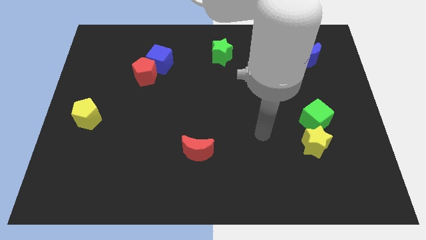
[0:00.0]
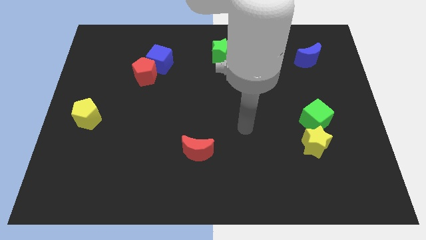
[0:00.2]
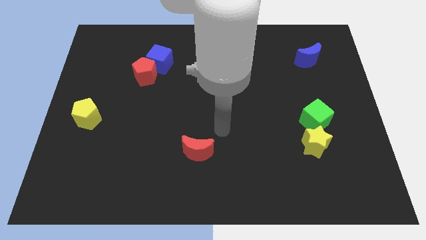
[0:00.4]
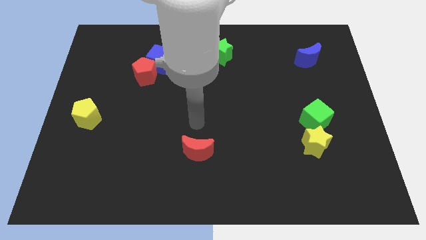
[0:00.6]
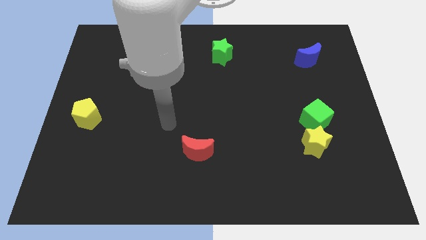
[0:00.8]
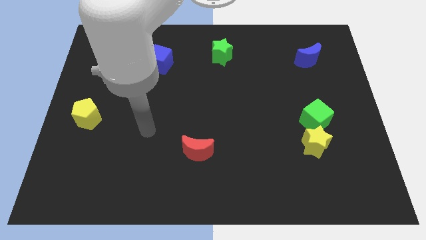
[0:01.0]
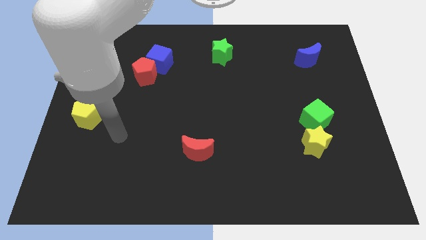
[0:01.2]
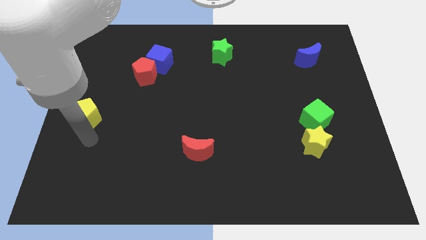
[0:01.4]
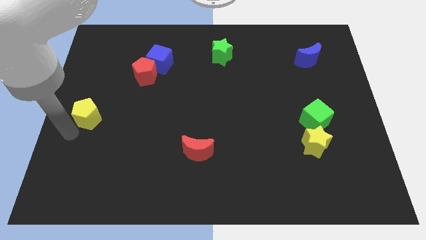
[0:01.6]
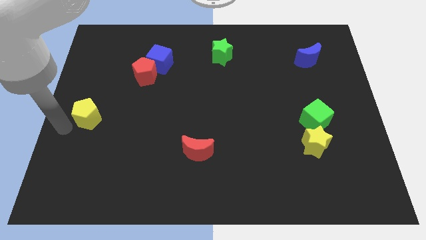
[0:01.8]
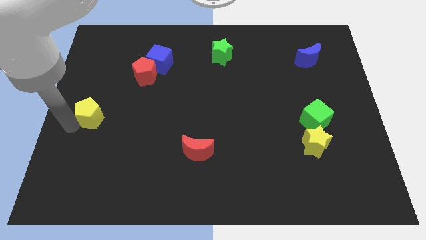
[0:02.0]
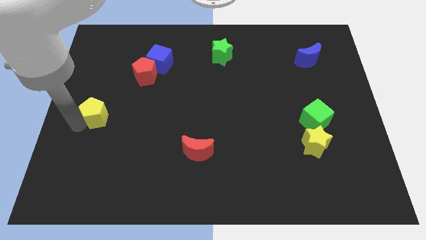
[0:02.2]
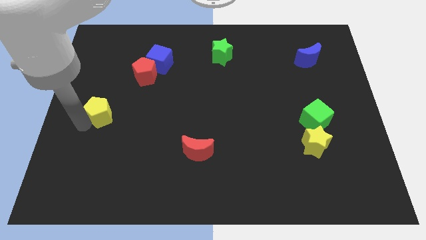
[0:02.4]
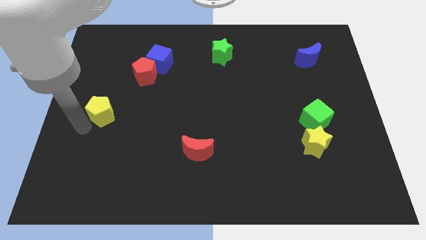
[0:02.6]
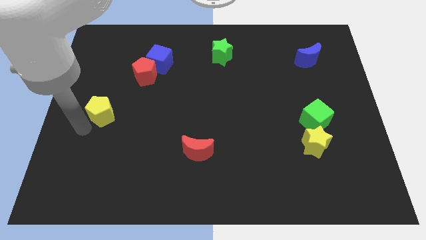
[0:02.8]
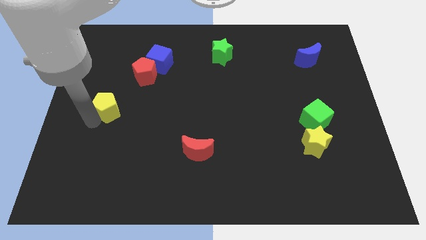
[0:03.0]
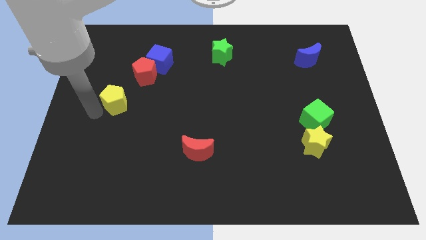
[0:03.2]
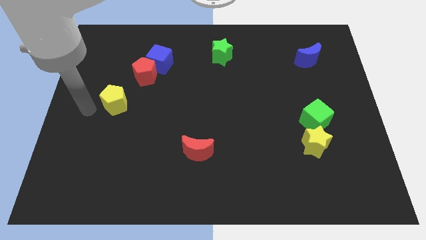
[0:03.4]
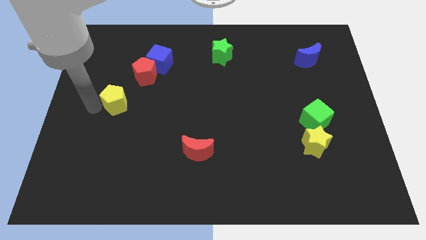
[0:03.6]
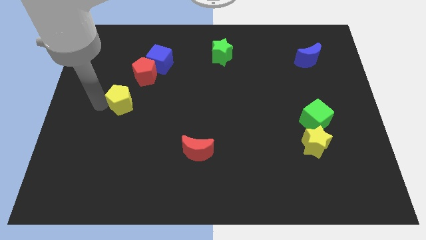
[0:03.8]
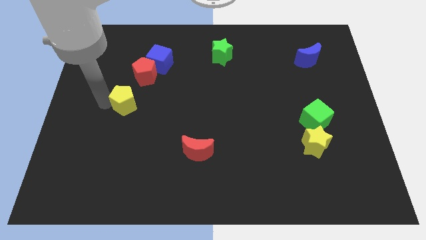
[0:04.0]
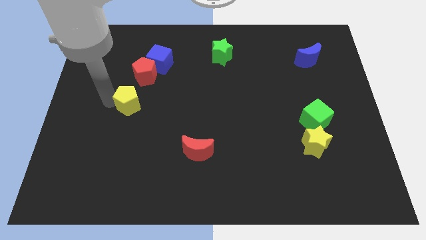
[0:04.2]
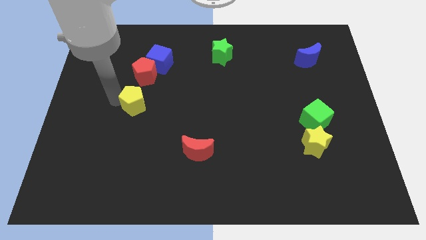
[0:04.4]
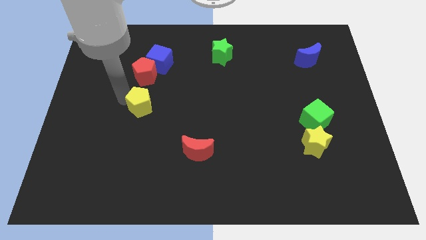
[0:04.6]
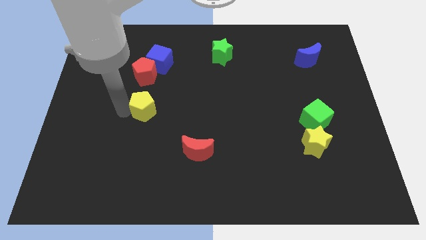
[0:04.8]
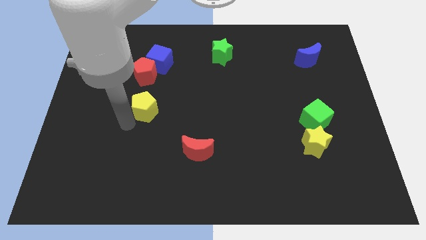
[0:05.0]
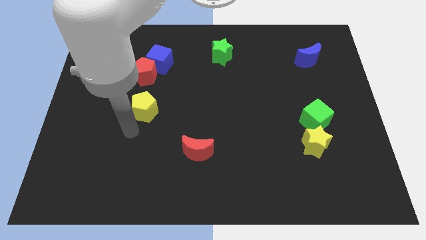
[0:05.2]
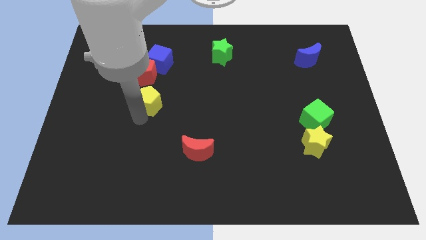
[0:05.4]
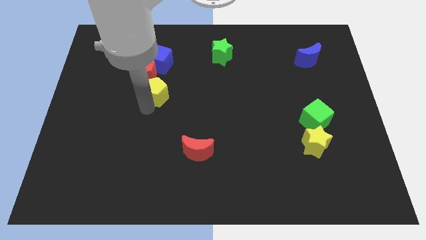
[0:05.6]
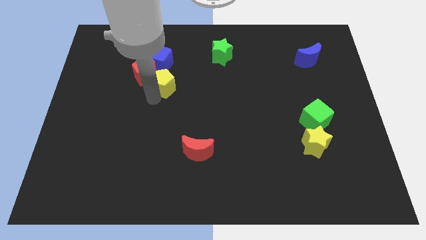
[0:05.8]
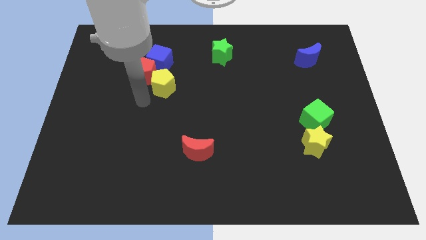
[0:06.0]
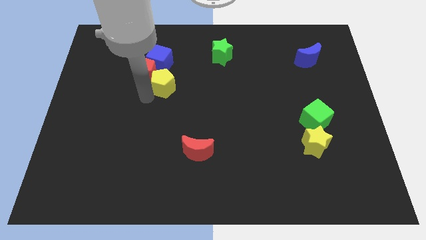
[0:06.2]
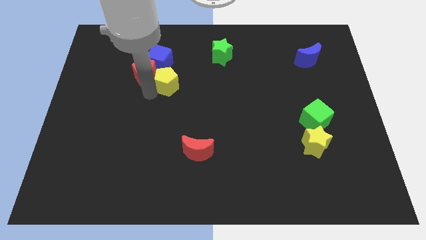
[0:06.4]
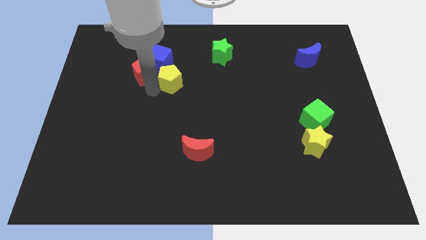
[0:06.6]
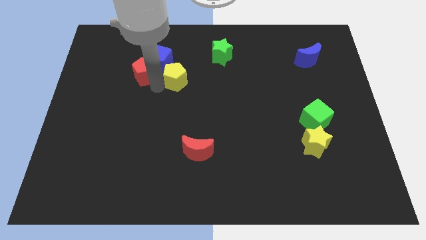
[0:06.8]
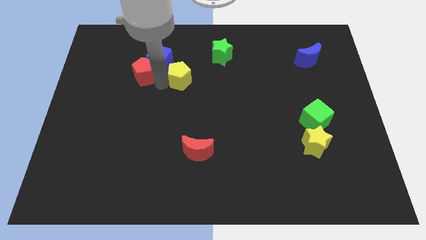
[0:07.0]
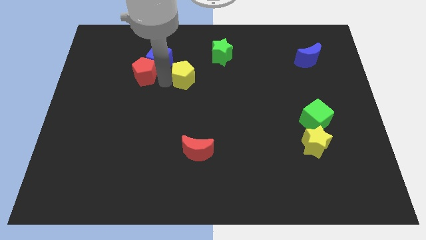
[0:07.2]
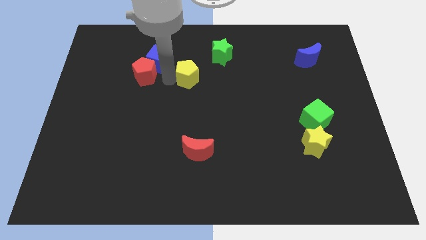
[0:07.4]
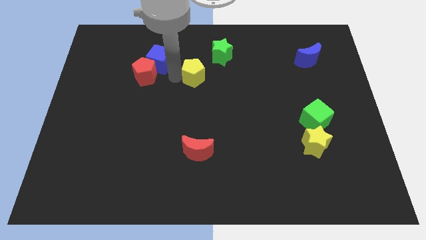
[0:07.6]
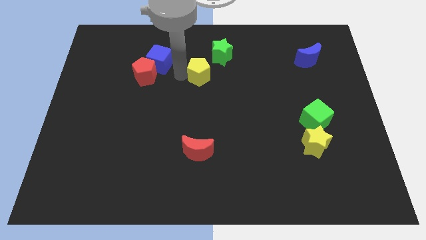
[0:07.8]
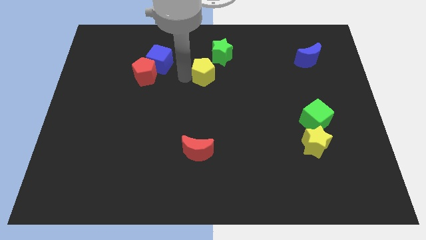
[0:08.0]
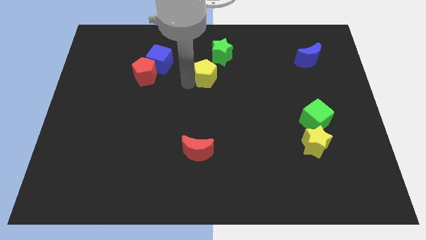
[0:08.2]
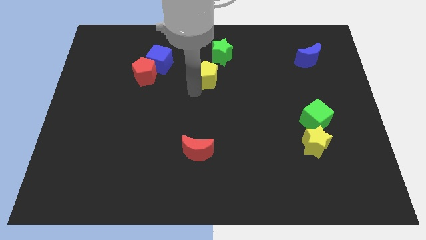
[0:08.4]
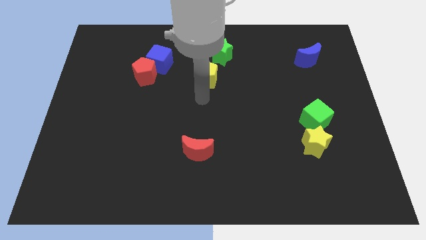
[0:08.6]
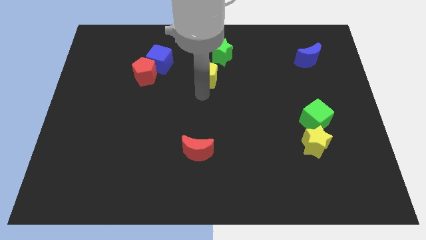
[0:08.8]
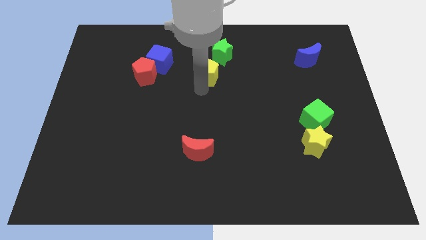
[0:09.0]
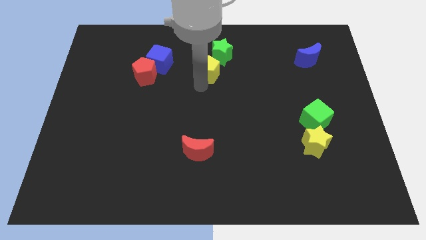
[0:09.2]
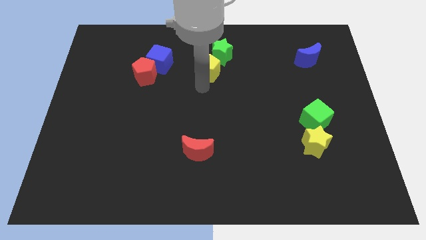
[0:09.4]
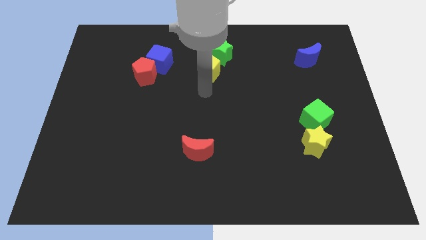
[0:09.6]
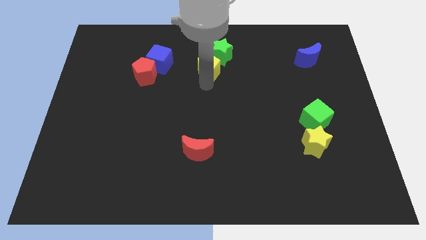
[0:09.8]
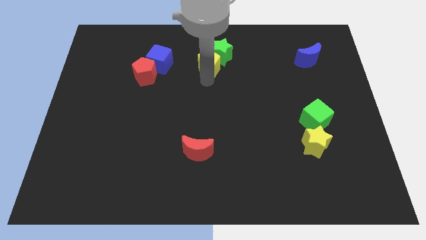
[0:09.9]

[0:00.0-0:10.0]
put the yellow pentagon to the green star

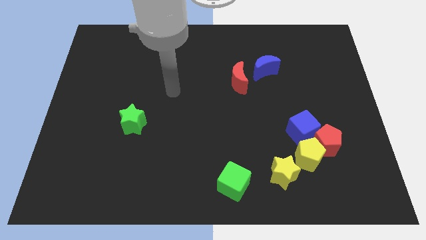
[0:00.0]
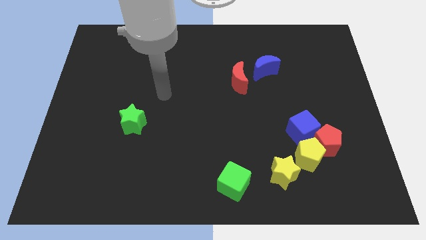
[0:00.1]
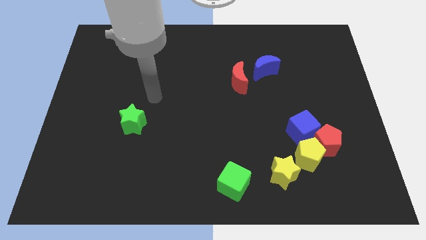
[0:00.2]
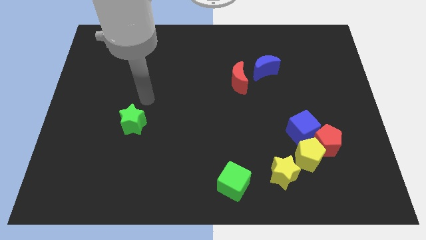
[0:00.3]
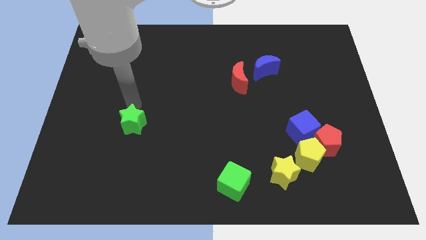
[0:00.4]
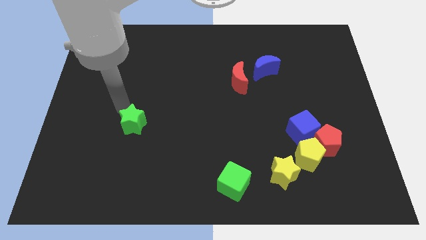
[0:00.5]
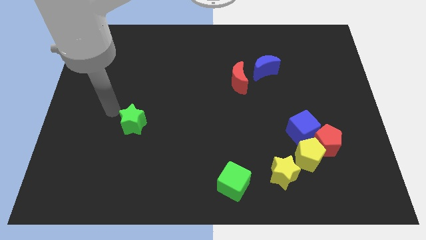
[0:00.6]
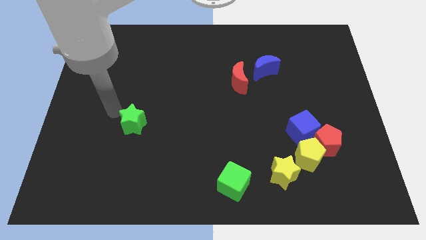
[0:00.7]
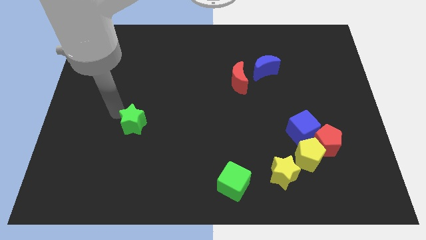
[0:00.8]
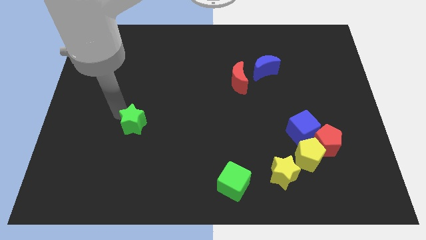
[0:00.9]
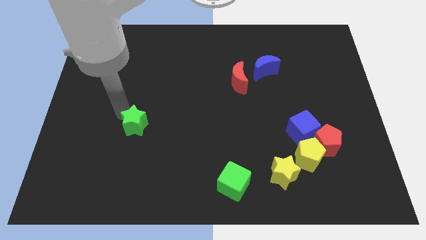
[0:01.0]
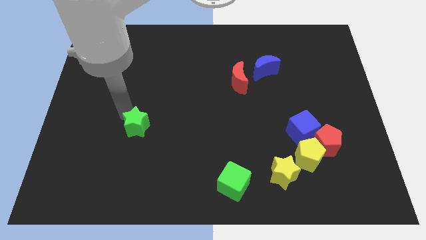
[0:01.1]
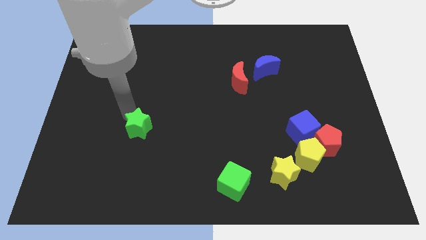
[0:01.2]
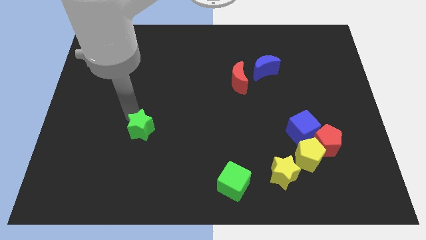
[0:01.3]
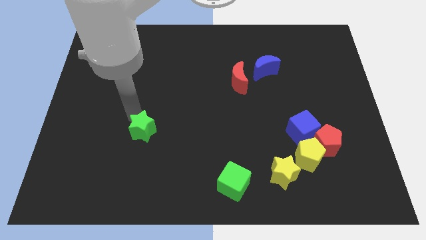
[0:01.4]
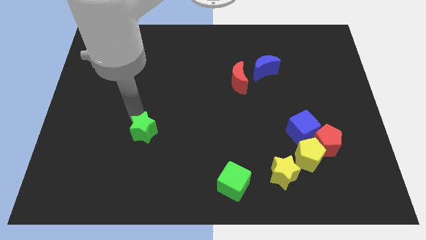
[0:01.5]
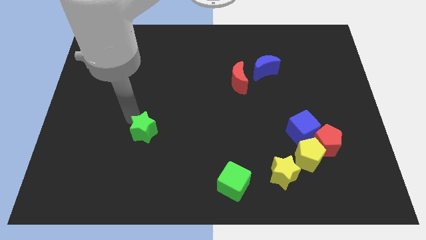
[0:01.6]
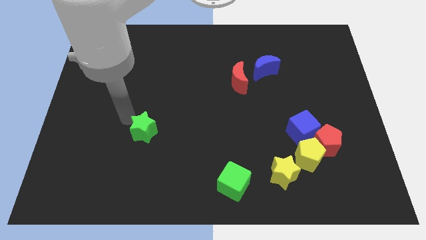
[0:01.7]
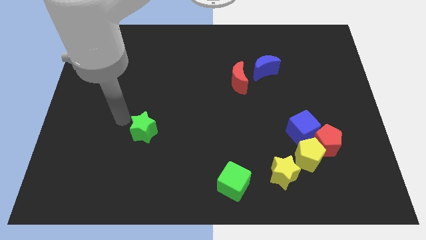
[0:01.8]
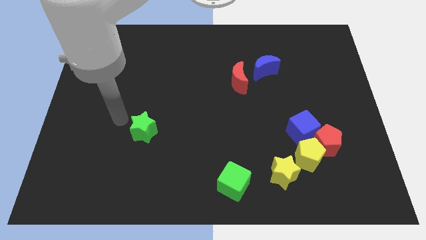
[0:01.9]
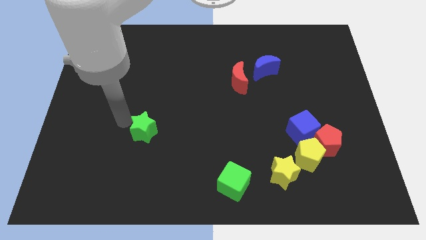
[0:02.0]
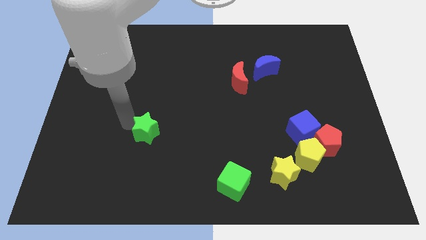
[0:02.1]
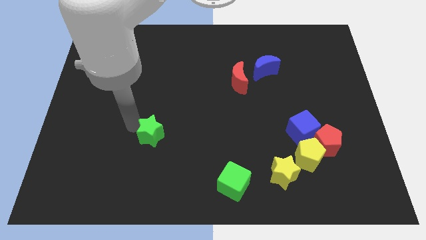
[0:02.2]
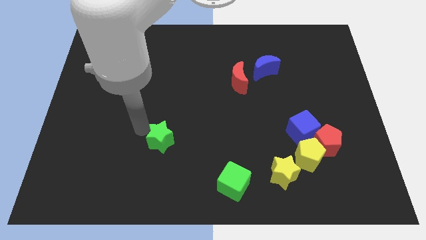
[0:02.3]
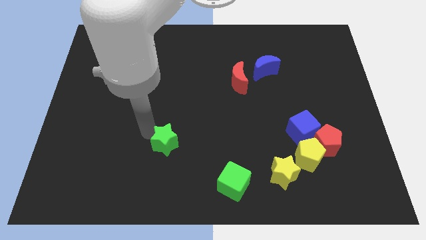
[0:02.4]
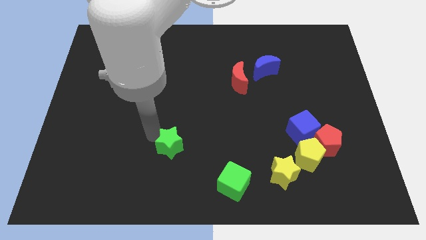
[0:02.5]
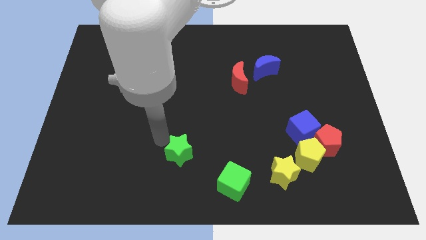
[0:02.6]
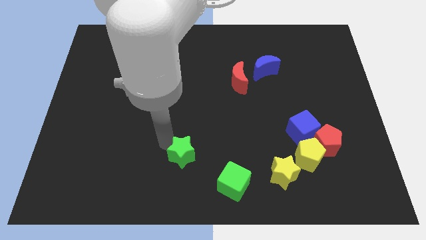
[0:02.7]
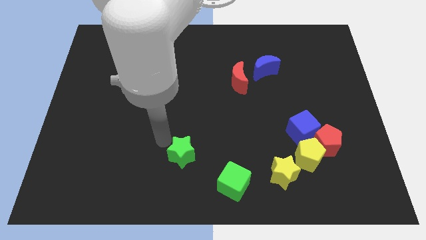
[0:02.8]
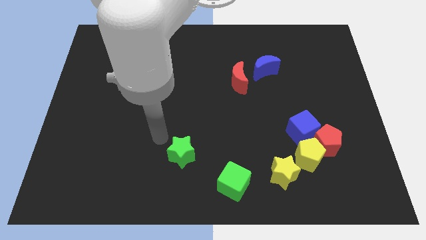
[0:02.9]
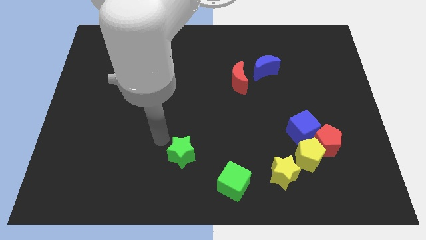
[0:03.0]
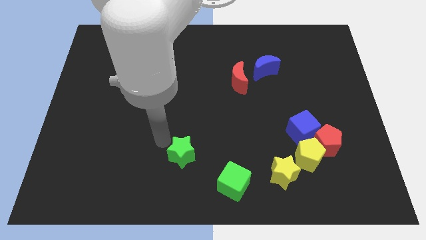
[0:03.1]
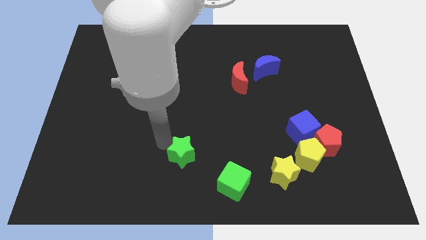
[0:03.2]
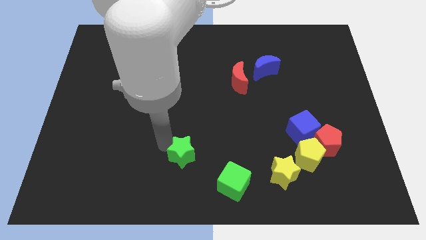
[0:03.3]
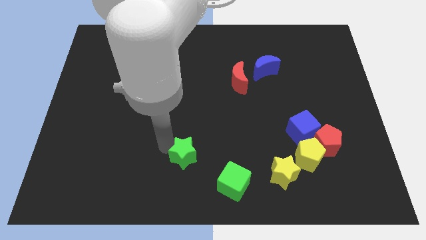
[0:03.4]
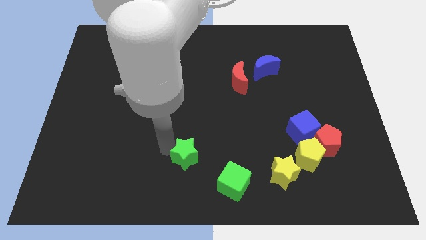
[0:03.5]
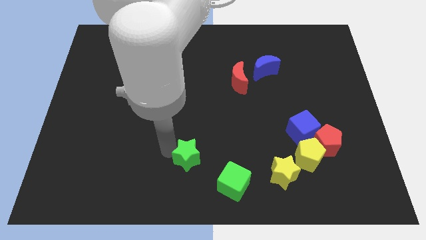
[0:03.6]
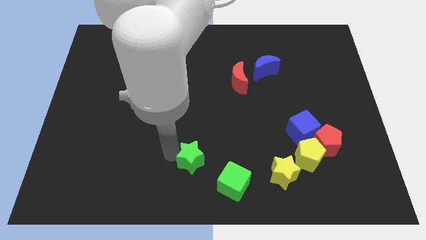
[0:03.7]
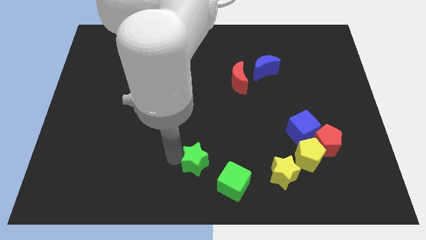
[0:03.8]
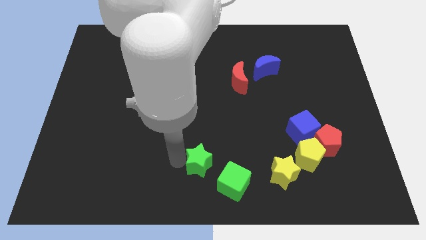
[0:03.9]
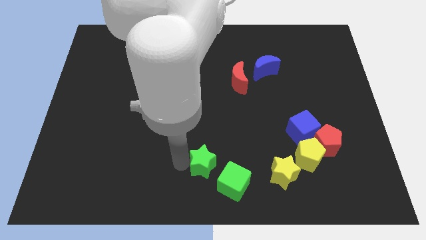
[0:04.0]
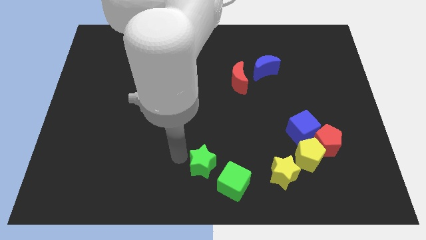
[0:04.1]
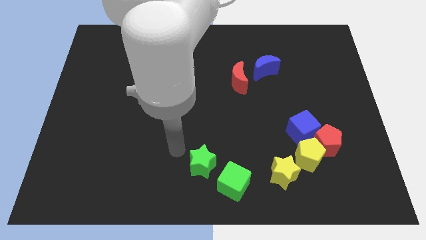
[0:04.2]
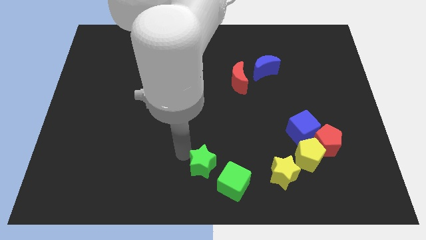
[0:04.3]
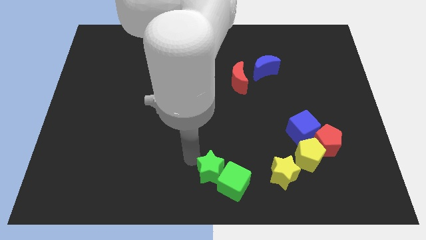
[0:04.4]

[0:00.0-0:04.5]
move the green star next to the green cube
